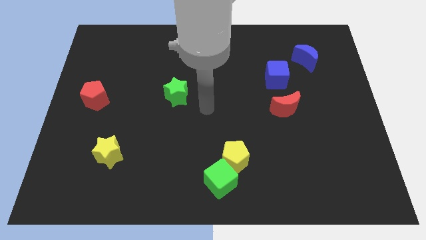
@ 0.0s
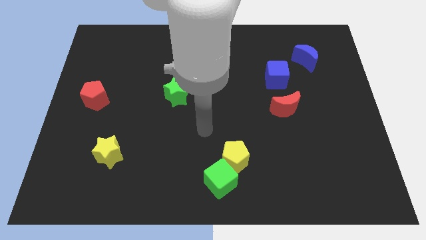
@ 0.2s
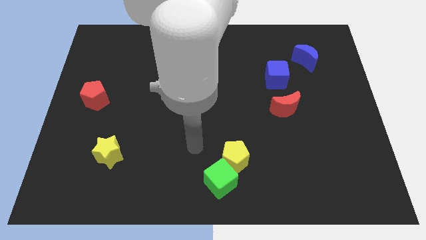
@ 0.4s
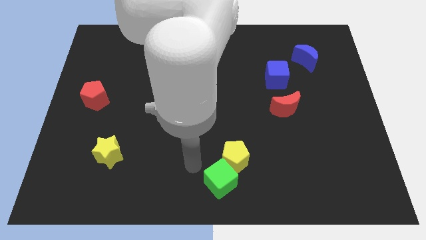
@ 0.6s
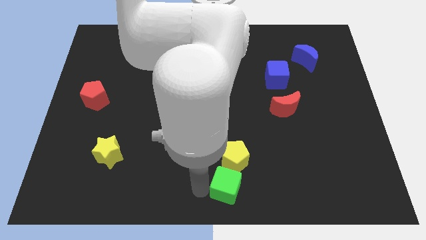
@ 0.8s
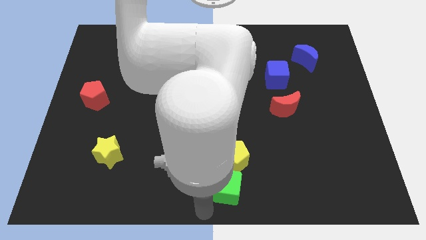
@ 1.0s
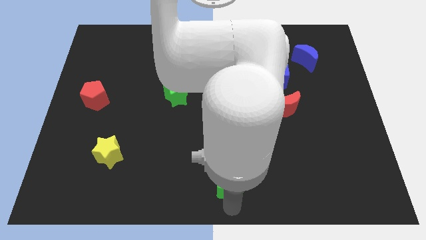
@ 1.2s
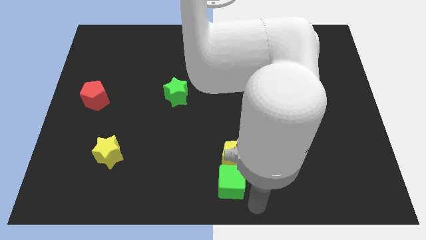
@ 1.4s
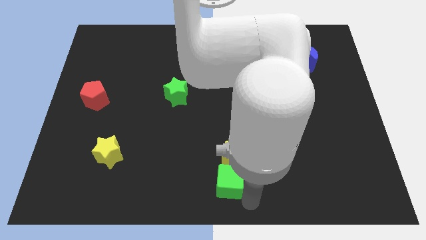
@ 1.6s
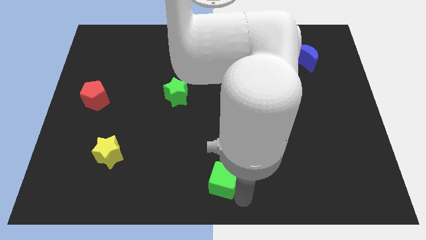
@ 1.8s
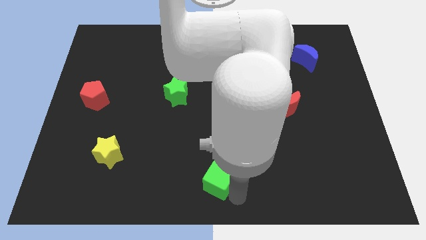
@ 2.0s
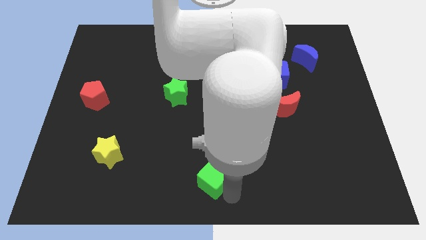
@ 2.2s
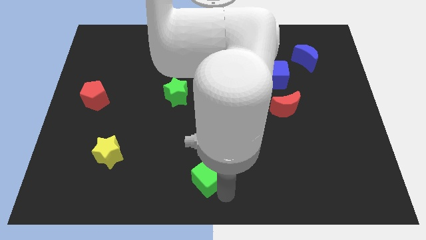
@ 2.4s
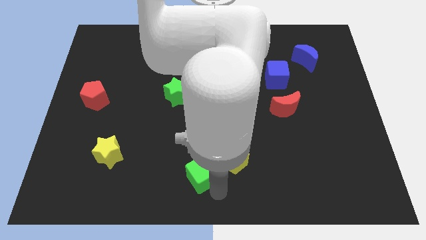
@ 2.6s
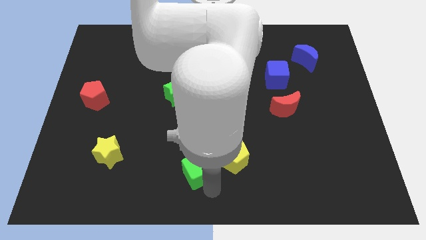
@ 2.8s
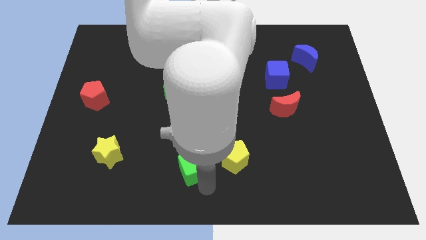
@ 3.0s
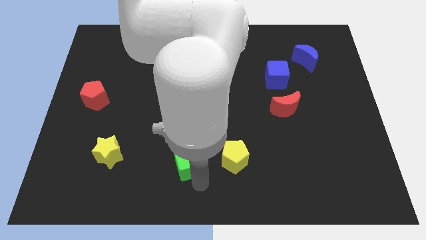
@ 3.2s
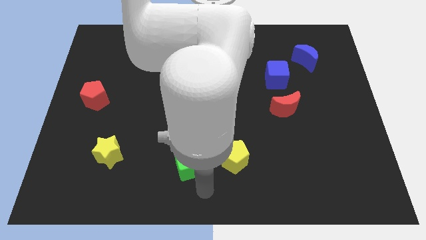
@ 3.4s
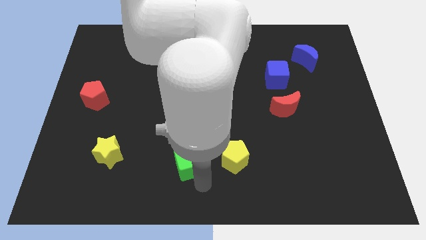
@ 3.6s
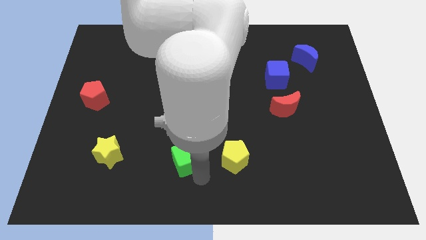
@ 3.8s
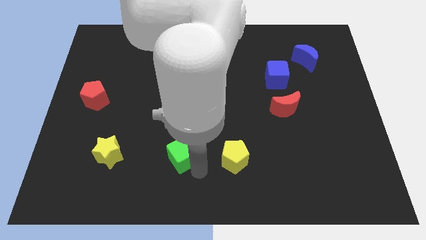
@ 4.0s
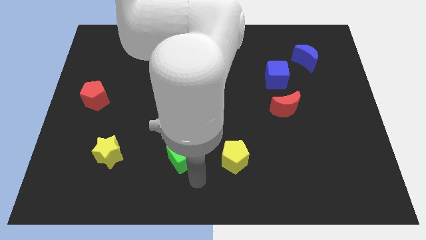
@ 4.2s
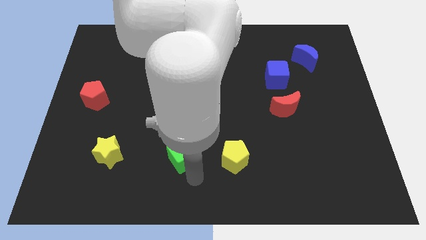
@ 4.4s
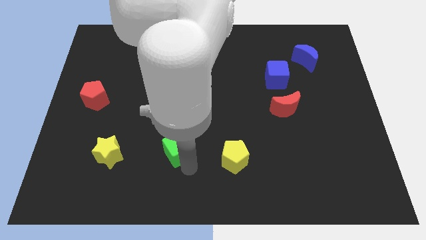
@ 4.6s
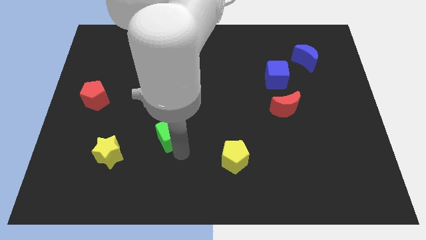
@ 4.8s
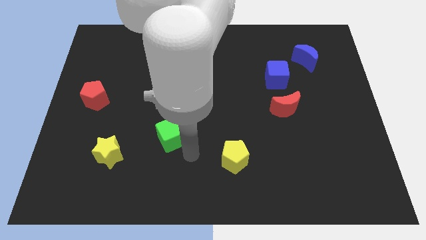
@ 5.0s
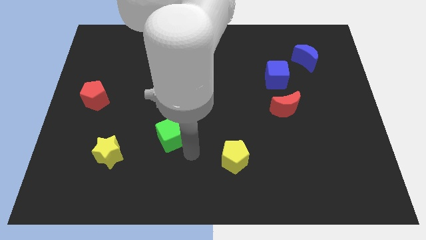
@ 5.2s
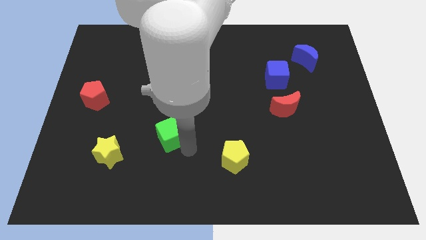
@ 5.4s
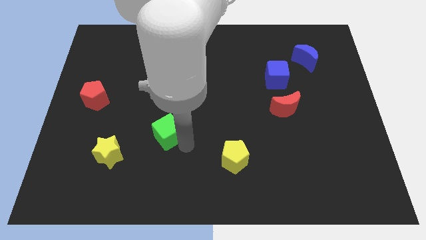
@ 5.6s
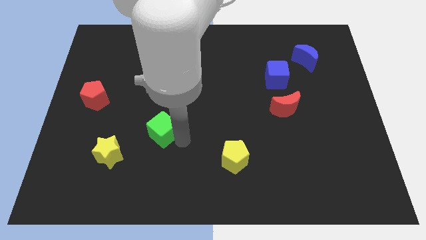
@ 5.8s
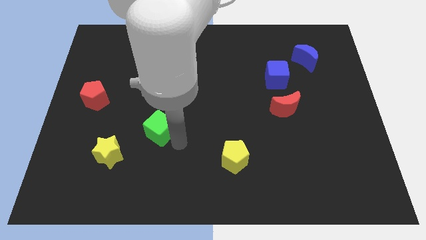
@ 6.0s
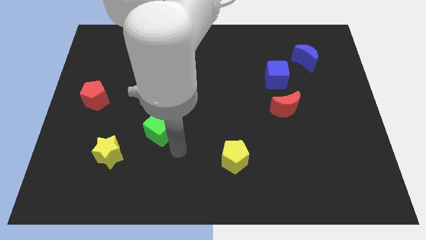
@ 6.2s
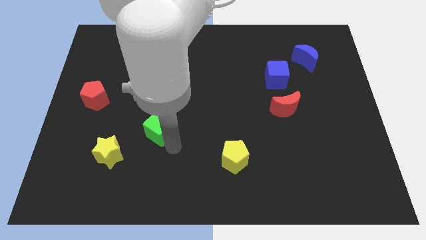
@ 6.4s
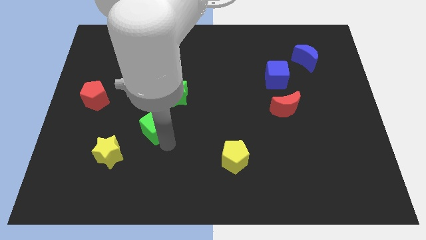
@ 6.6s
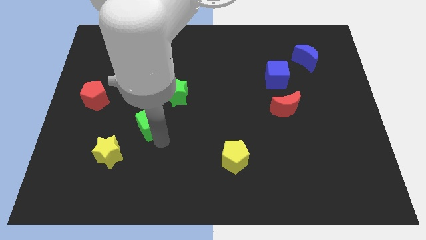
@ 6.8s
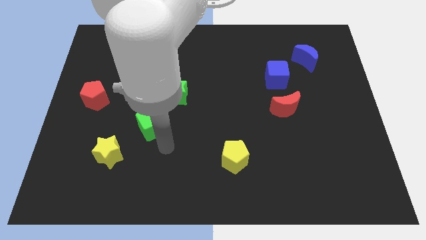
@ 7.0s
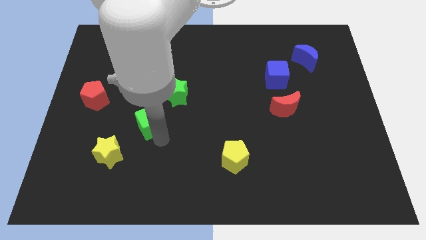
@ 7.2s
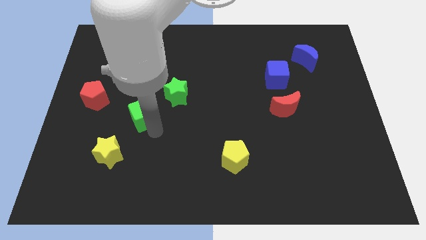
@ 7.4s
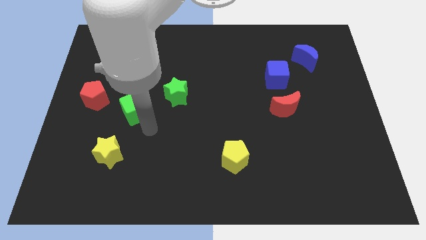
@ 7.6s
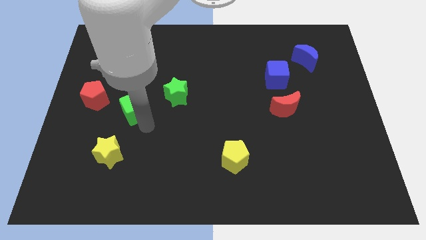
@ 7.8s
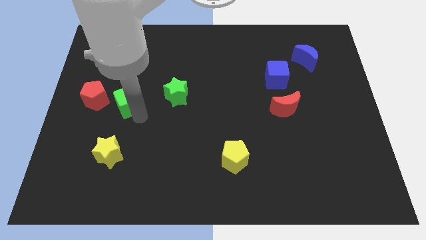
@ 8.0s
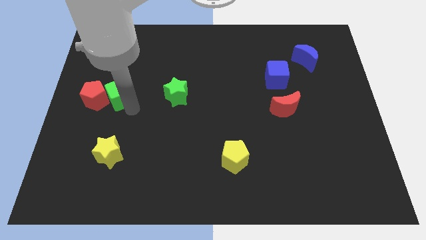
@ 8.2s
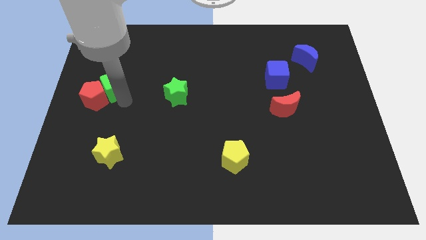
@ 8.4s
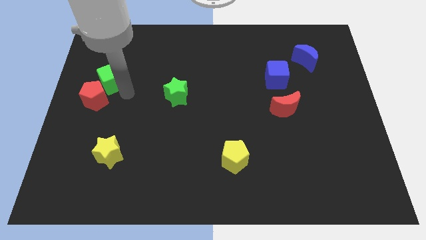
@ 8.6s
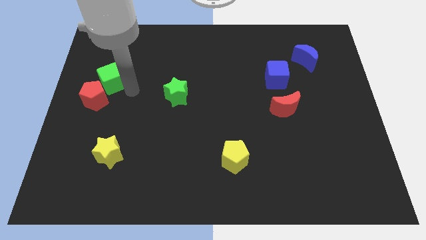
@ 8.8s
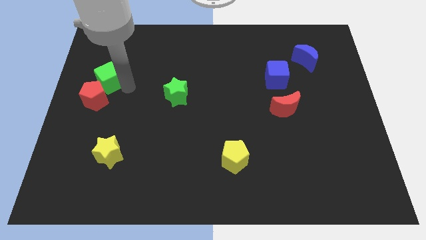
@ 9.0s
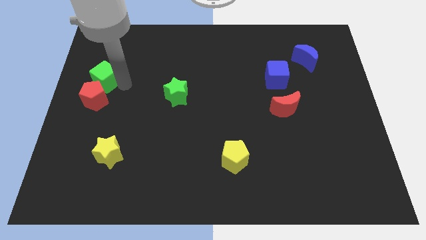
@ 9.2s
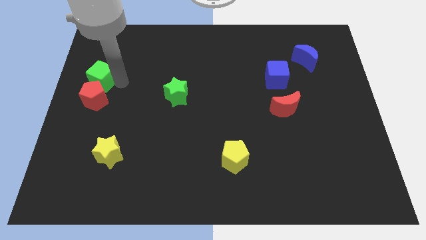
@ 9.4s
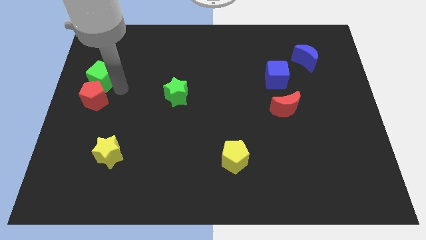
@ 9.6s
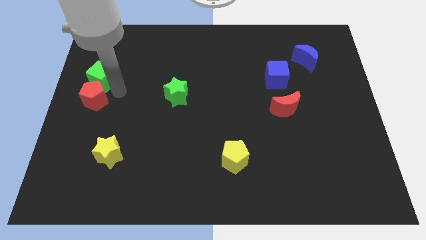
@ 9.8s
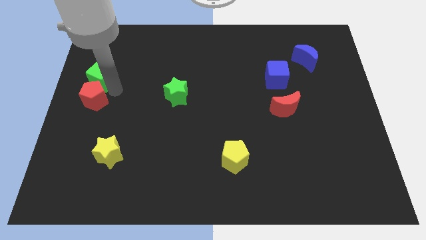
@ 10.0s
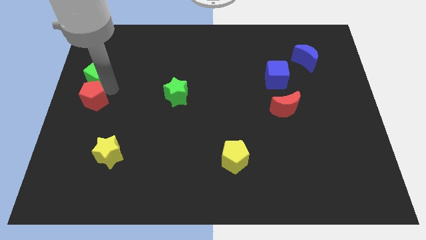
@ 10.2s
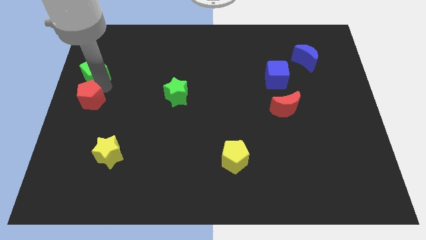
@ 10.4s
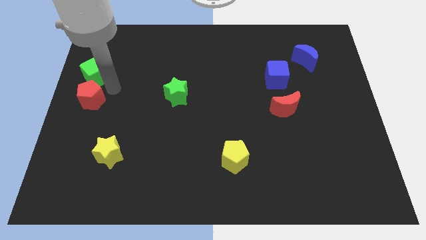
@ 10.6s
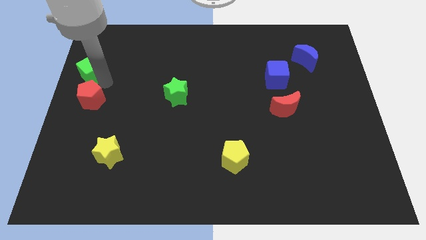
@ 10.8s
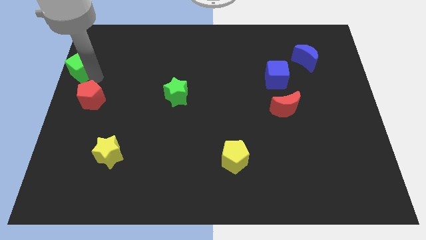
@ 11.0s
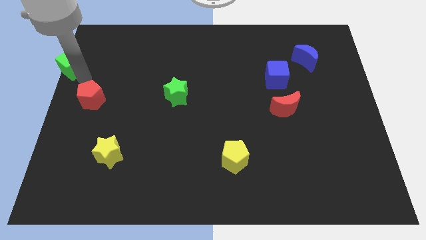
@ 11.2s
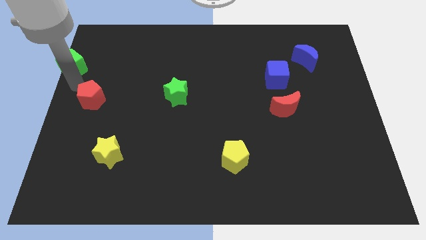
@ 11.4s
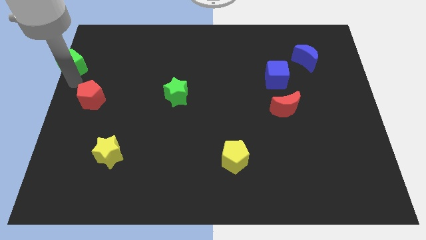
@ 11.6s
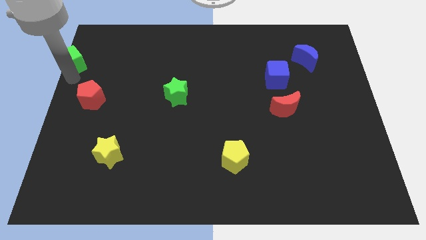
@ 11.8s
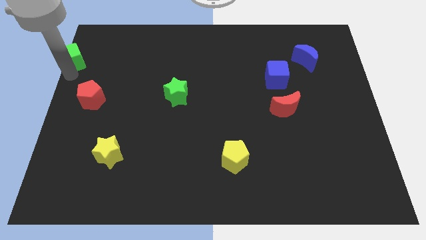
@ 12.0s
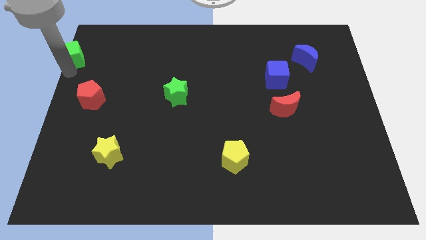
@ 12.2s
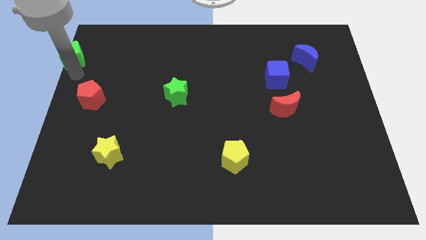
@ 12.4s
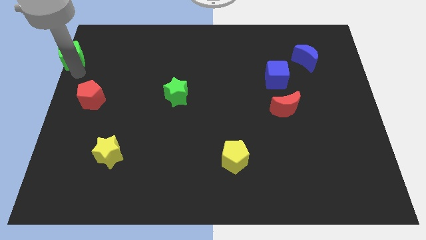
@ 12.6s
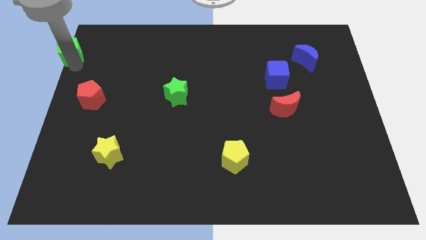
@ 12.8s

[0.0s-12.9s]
move the green cube to the top left corner
